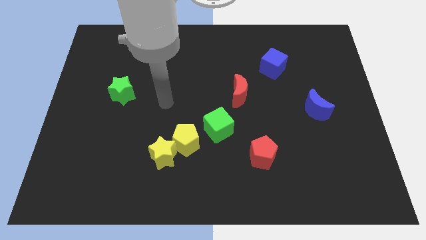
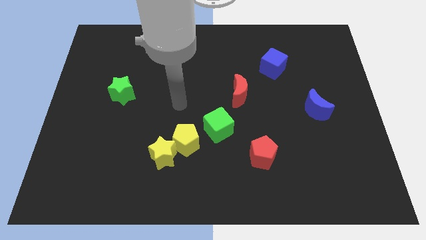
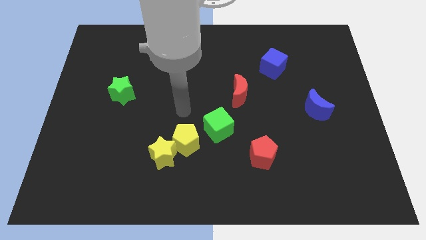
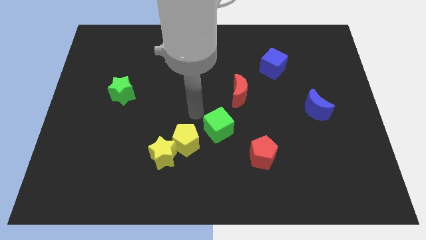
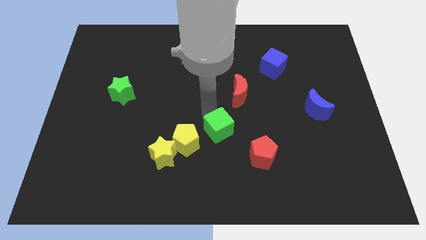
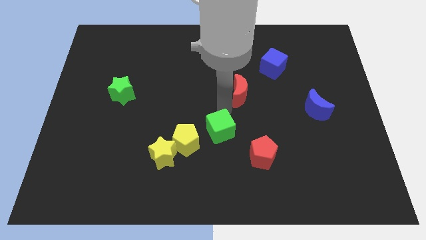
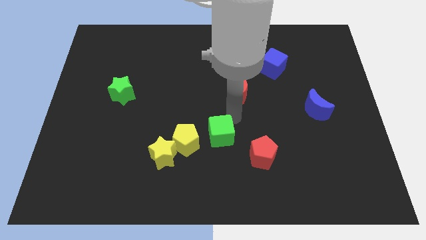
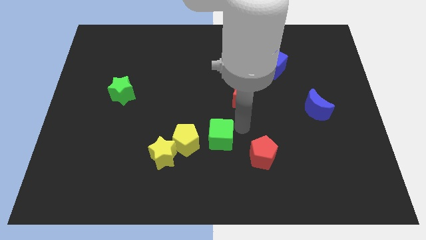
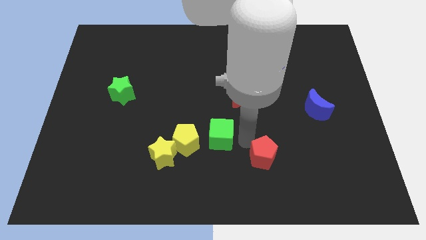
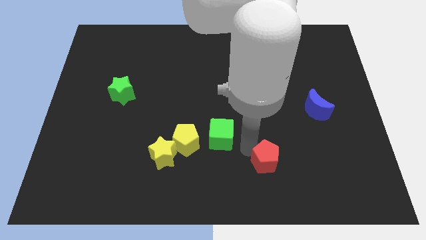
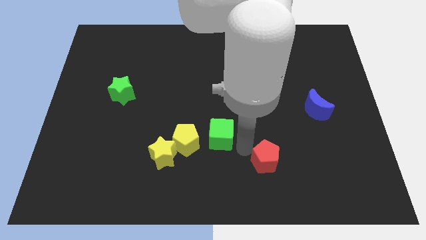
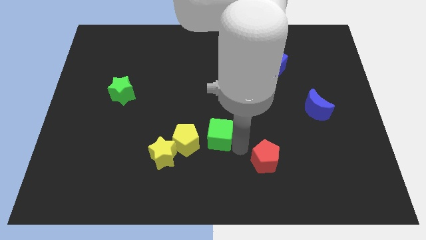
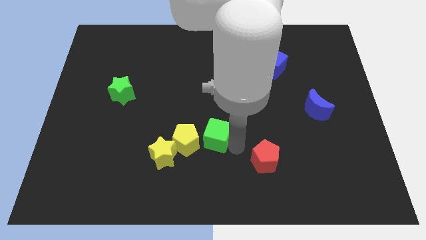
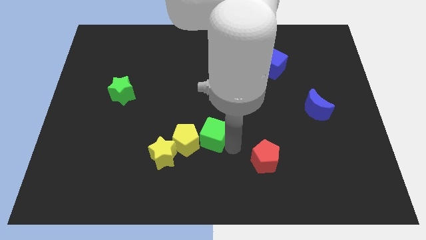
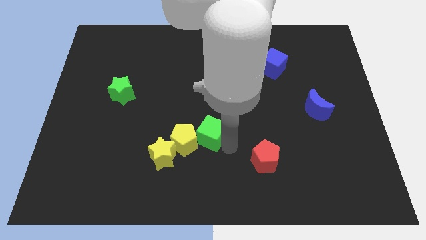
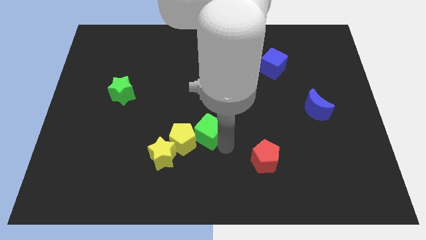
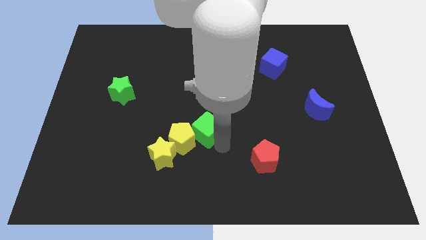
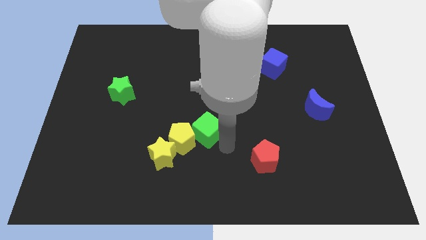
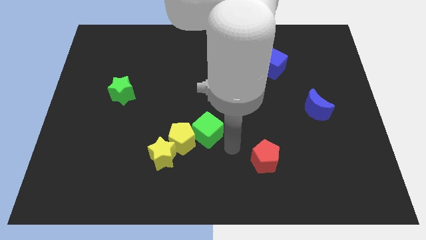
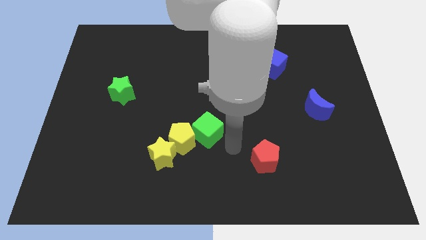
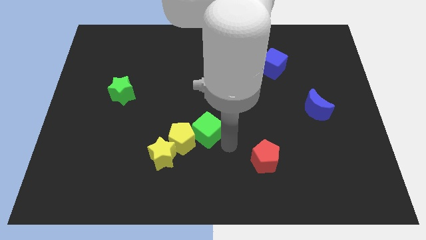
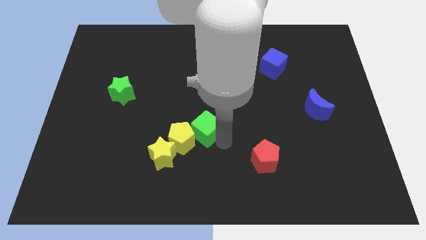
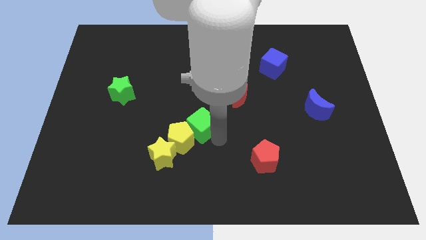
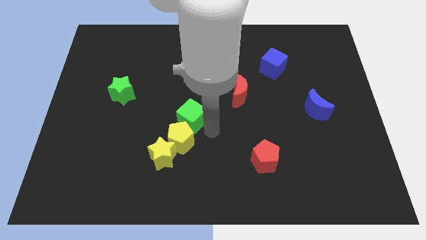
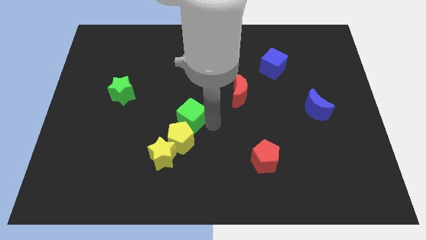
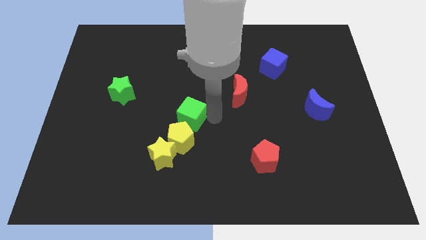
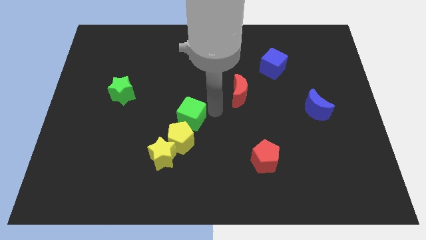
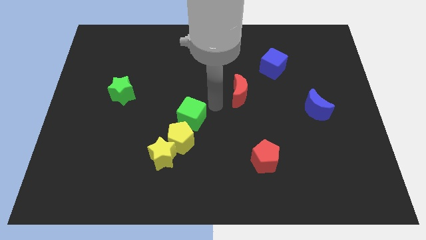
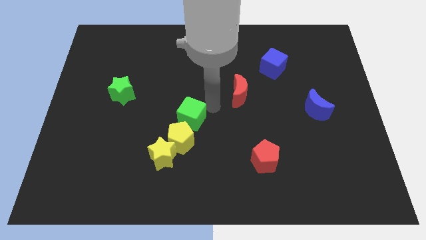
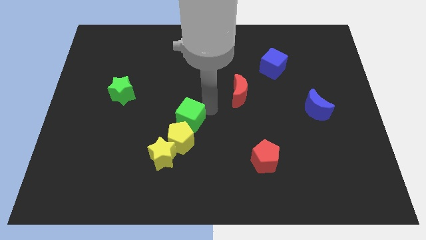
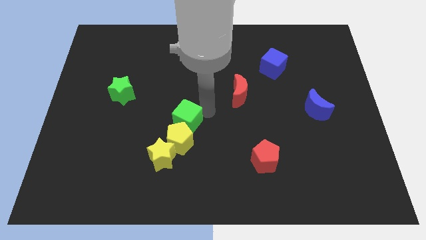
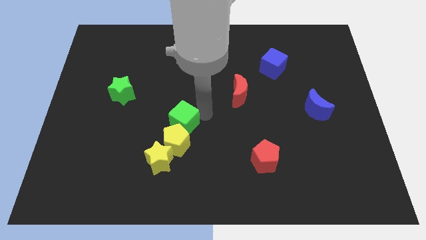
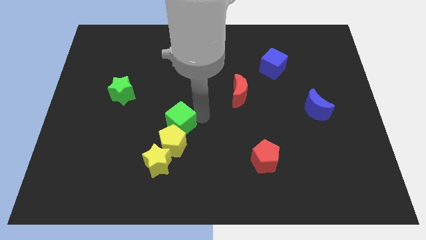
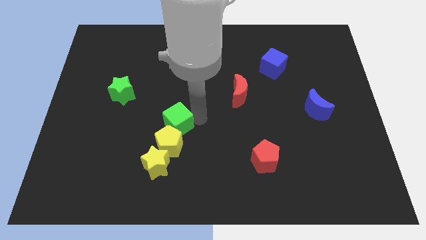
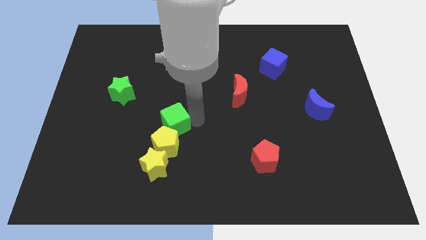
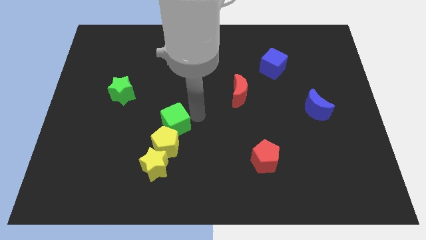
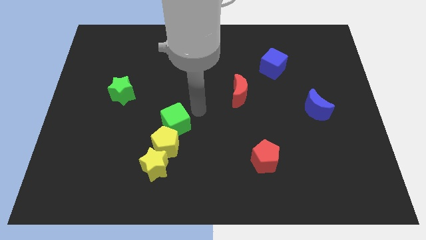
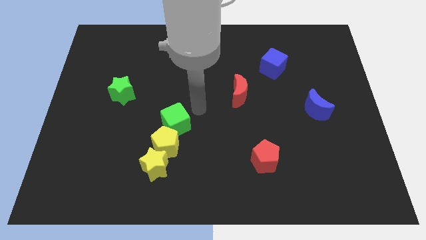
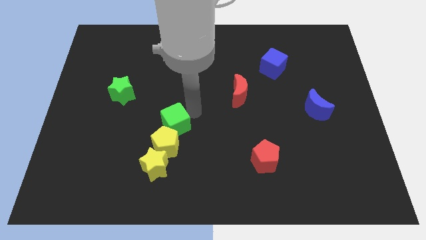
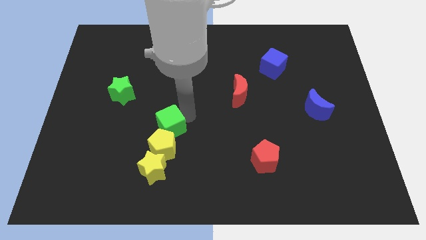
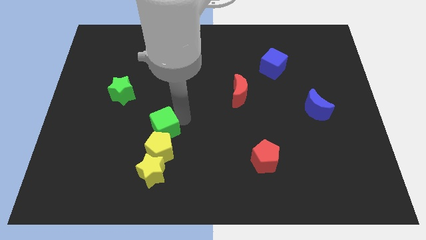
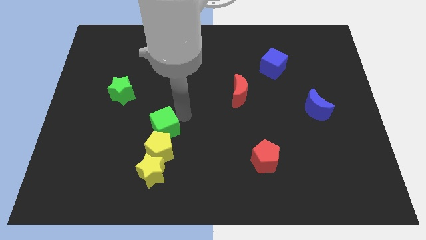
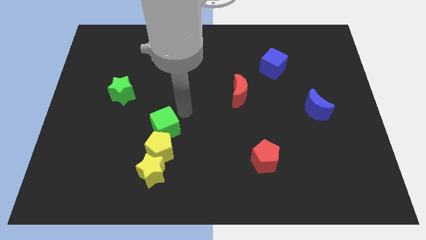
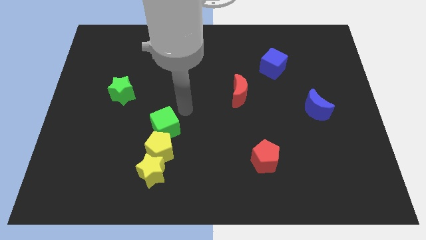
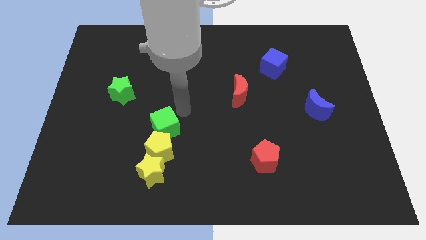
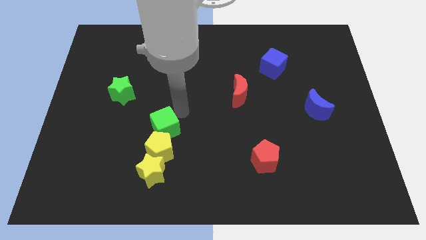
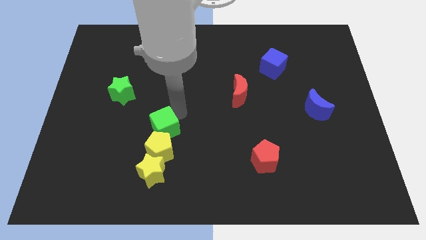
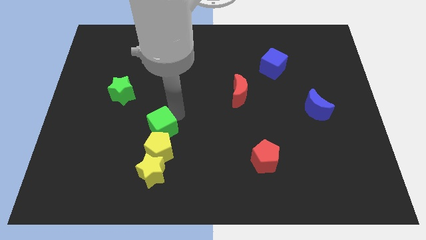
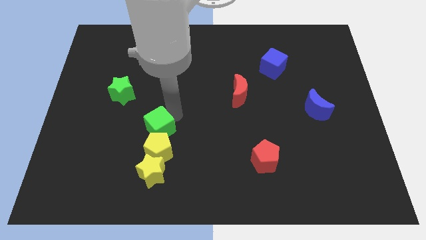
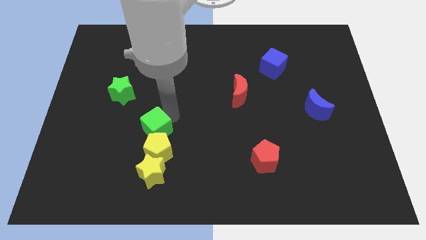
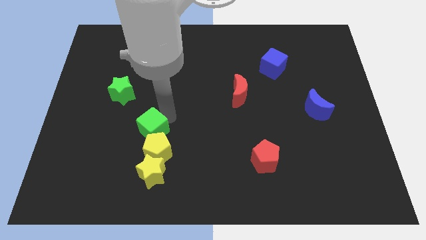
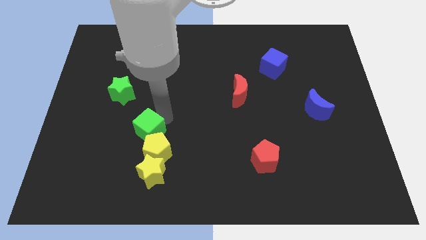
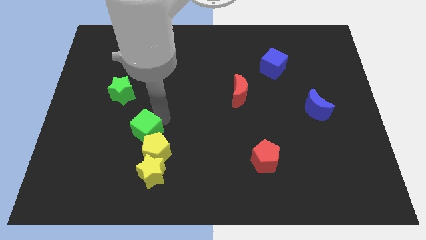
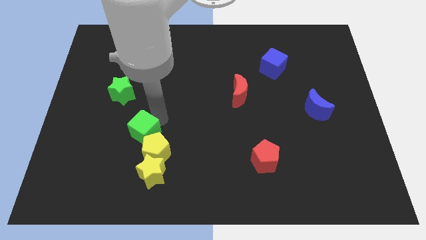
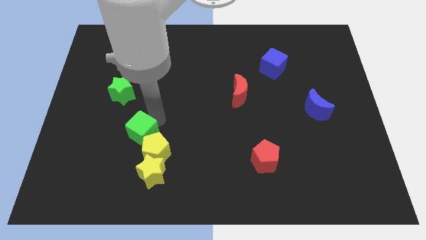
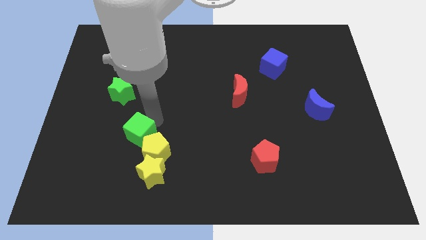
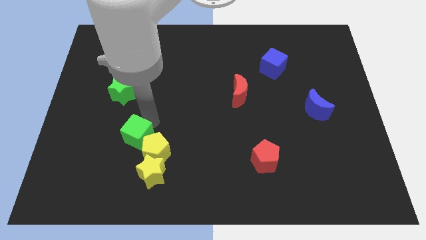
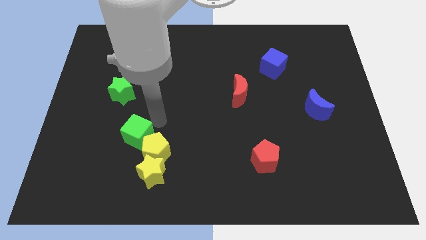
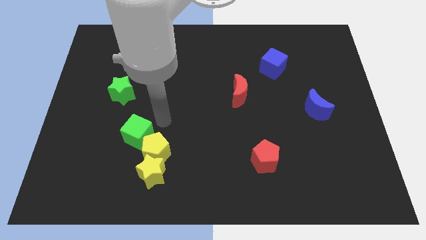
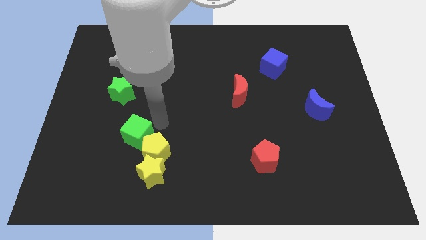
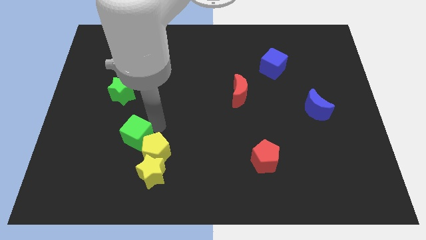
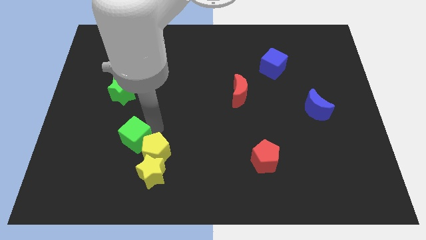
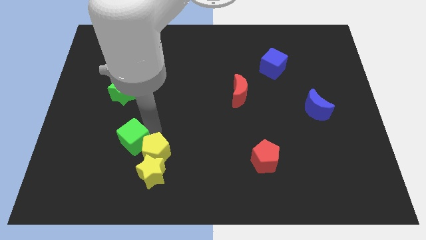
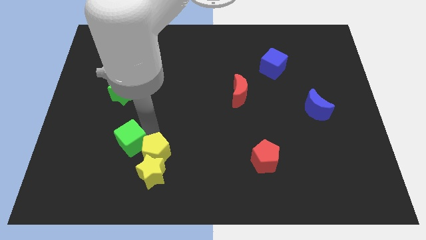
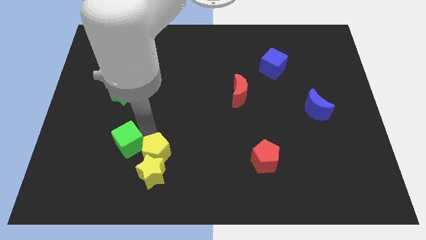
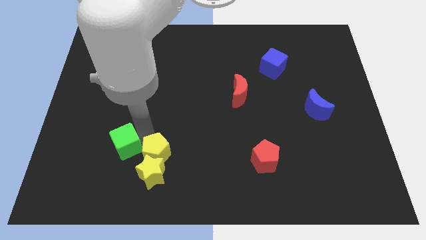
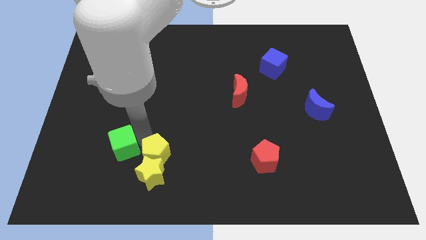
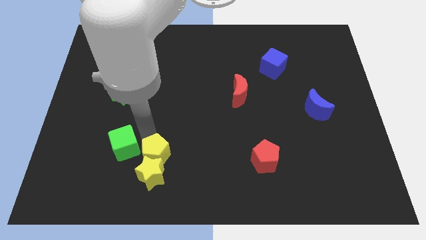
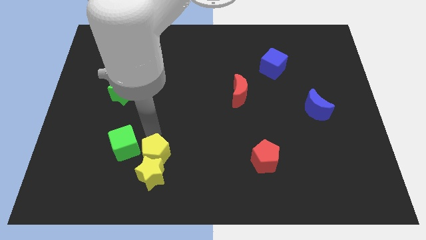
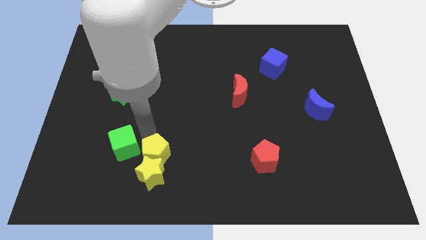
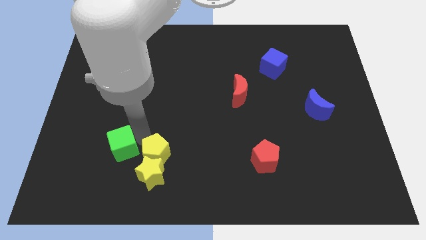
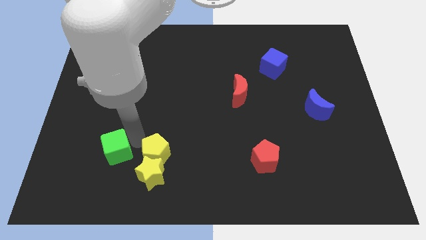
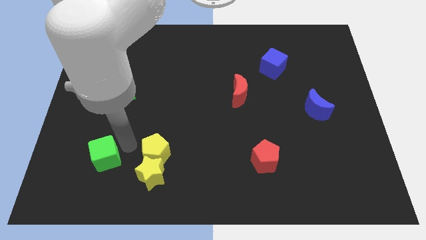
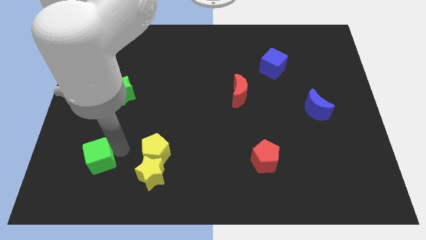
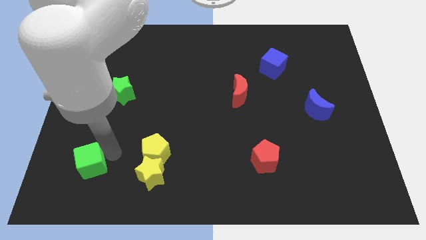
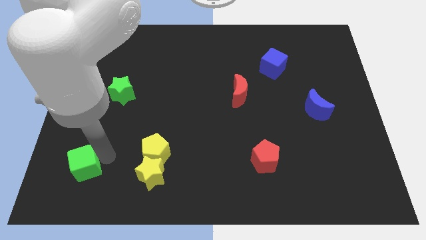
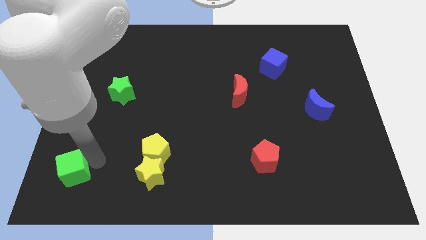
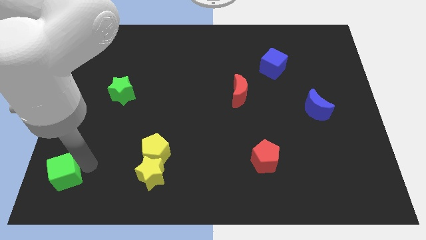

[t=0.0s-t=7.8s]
slide the green cube to the bottom left of the board
